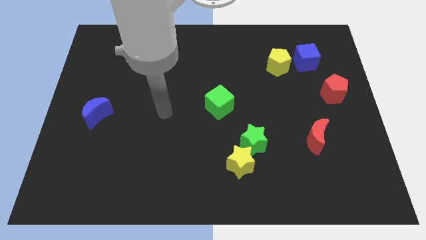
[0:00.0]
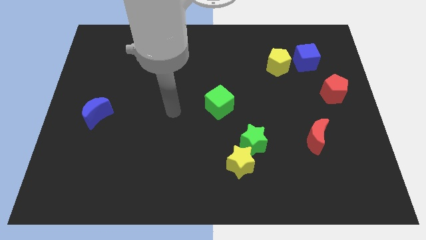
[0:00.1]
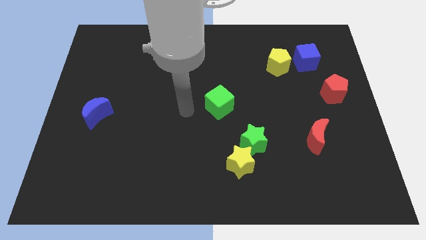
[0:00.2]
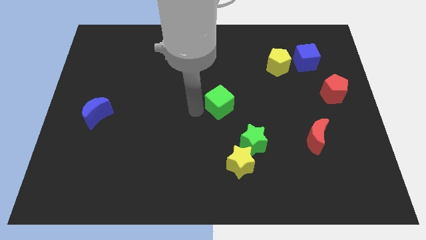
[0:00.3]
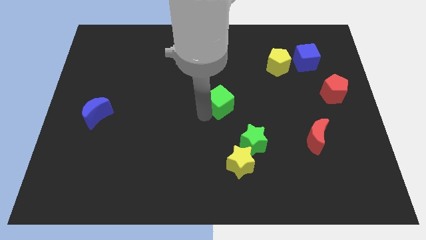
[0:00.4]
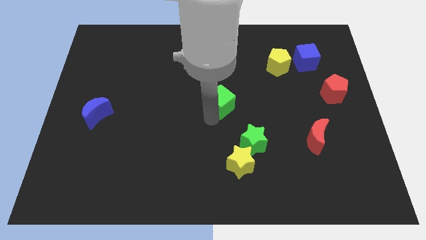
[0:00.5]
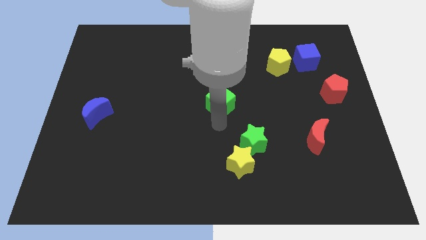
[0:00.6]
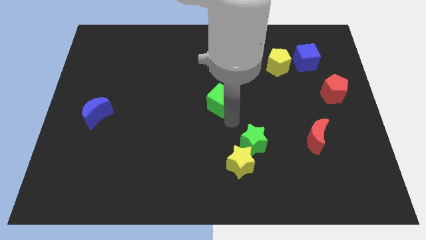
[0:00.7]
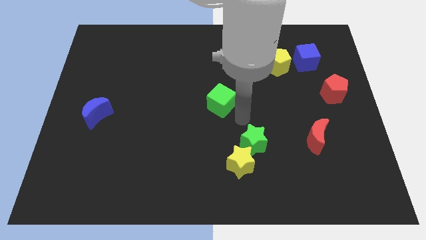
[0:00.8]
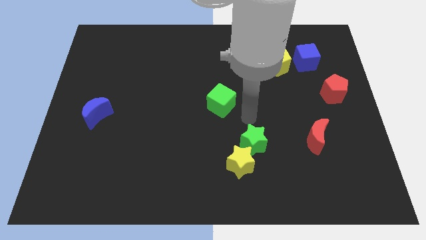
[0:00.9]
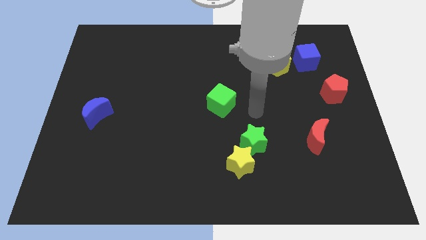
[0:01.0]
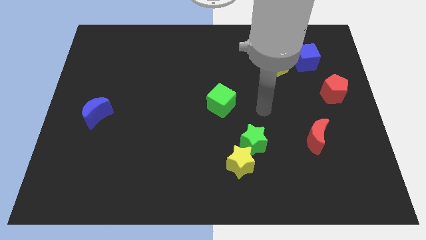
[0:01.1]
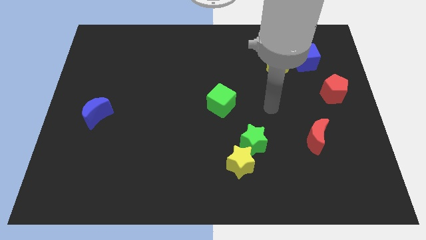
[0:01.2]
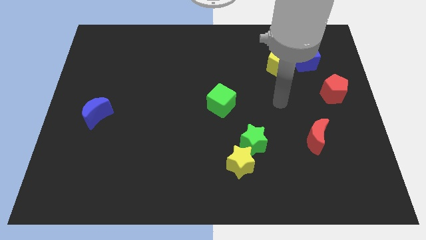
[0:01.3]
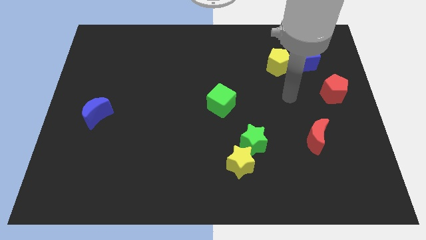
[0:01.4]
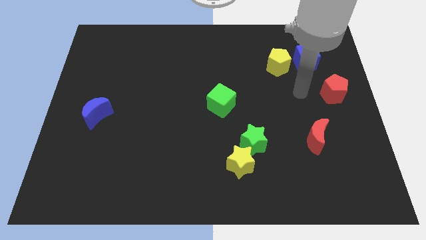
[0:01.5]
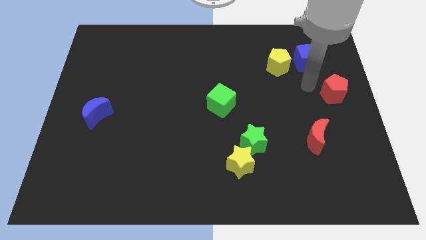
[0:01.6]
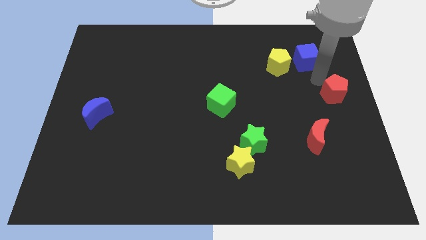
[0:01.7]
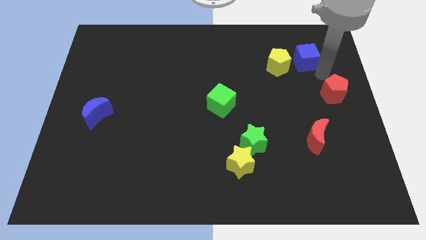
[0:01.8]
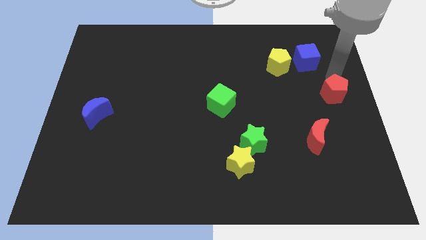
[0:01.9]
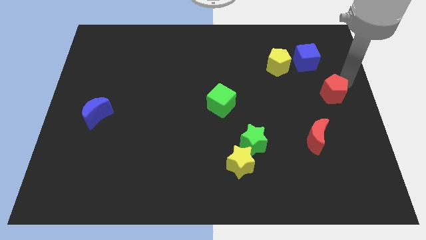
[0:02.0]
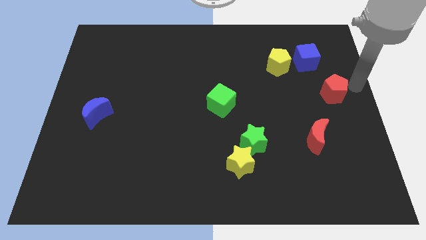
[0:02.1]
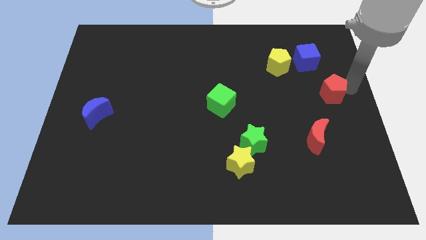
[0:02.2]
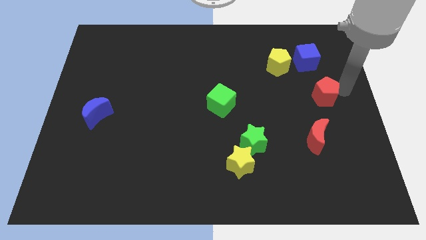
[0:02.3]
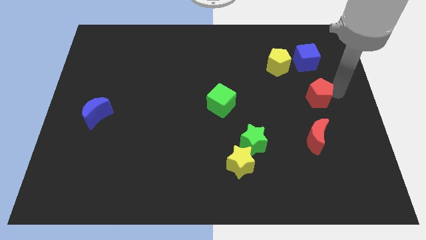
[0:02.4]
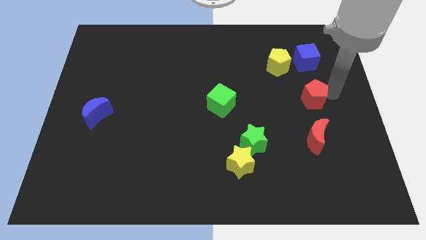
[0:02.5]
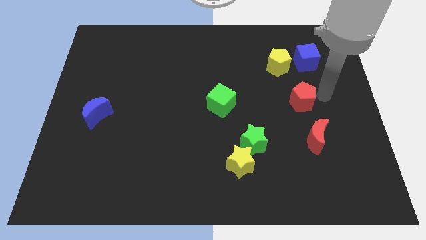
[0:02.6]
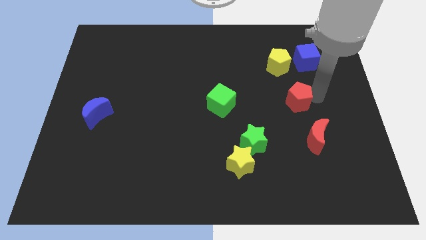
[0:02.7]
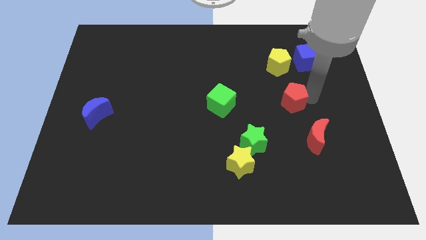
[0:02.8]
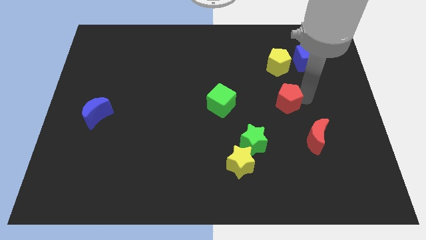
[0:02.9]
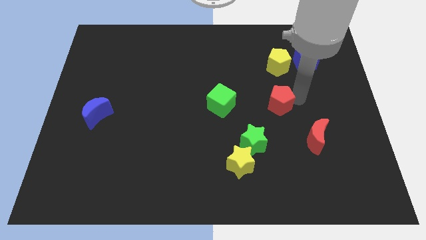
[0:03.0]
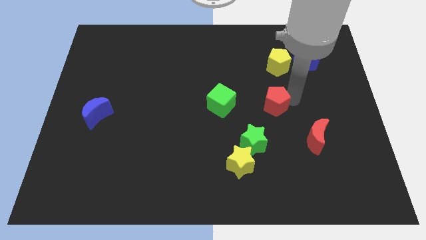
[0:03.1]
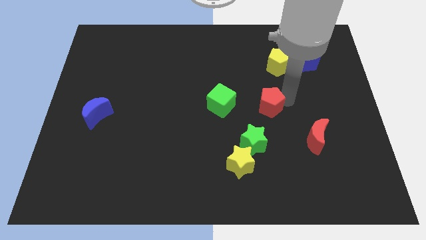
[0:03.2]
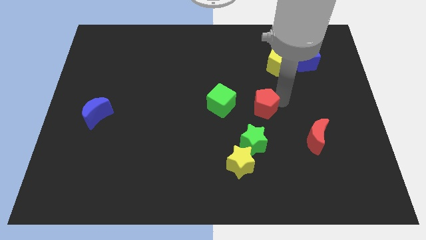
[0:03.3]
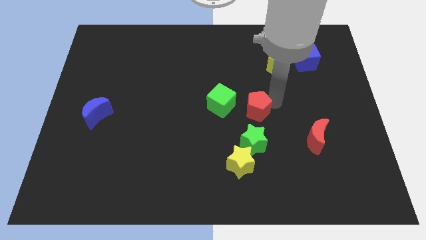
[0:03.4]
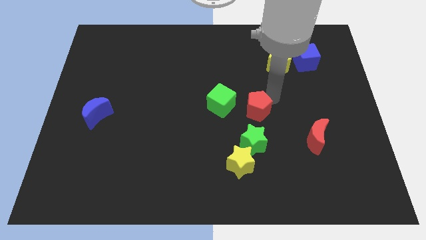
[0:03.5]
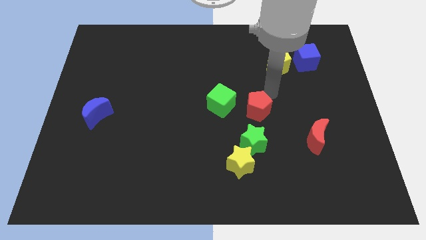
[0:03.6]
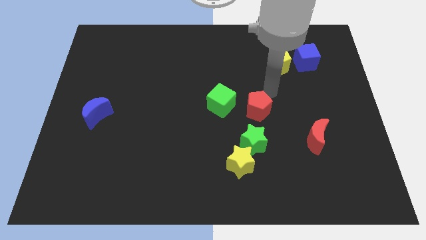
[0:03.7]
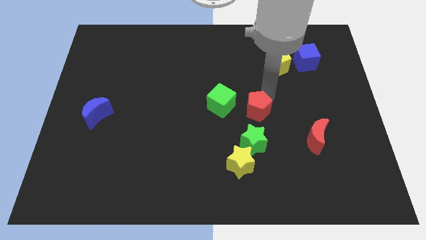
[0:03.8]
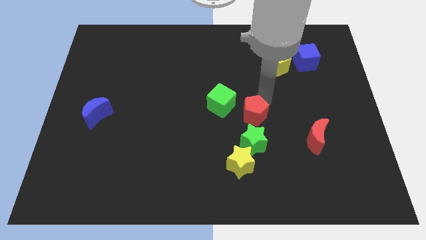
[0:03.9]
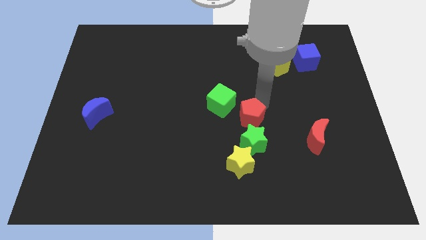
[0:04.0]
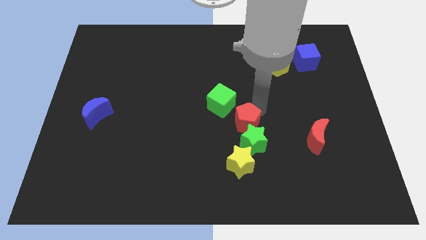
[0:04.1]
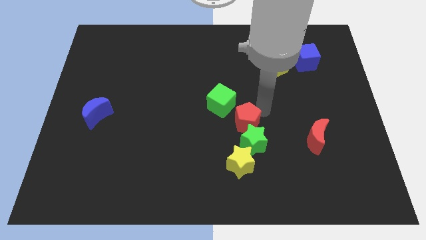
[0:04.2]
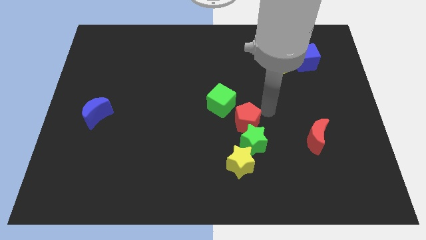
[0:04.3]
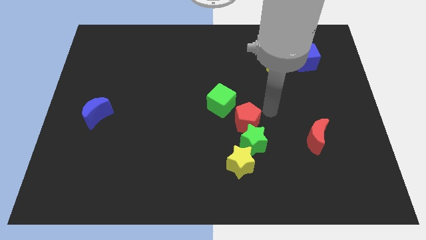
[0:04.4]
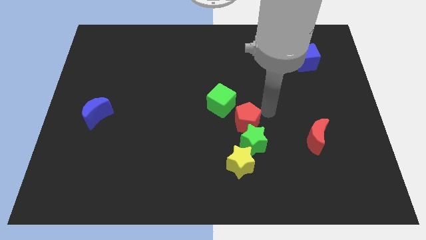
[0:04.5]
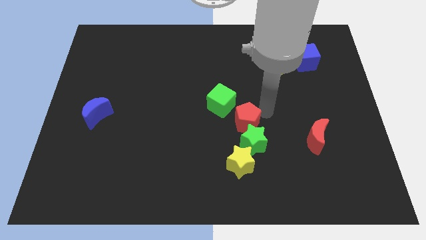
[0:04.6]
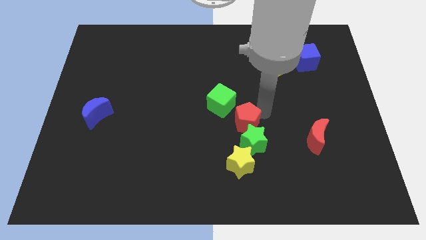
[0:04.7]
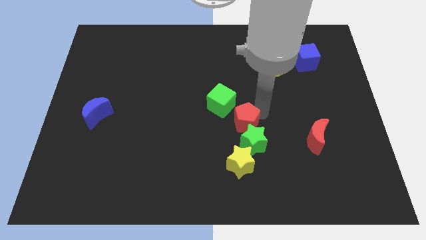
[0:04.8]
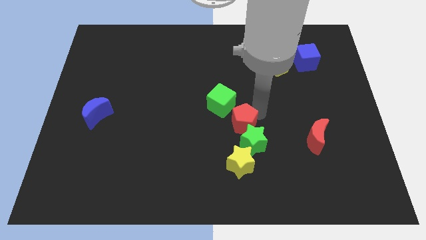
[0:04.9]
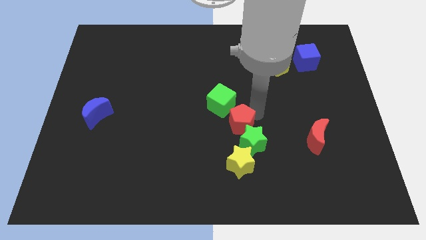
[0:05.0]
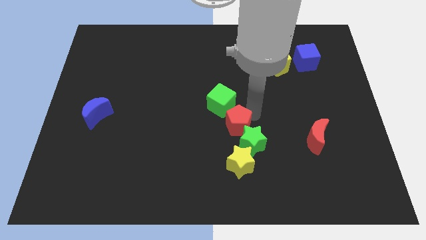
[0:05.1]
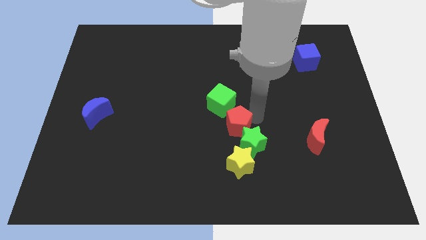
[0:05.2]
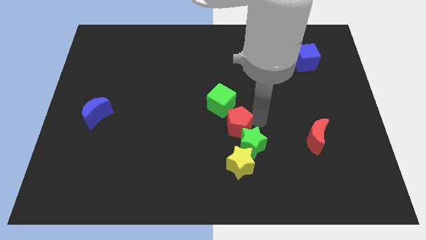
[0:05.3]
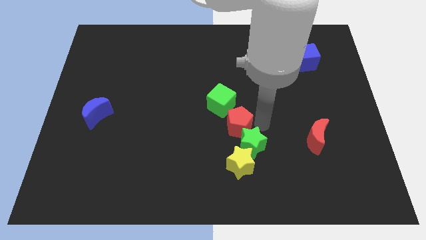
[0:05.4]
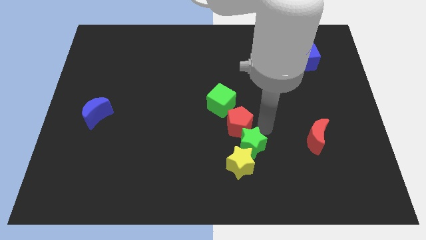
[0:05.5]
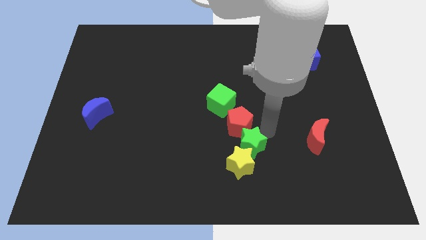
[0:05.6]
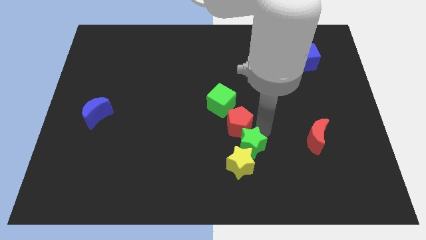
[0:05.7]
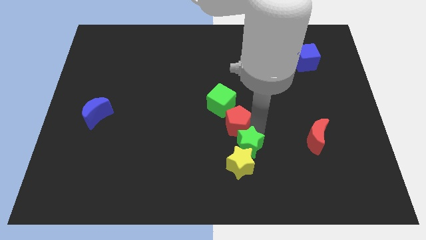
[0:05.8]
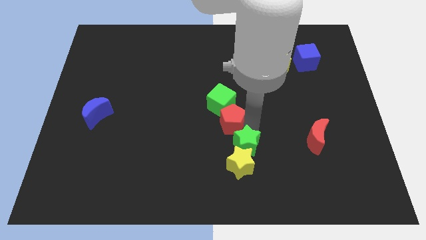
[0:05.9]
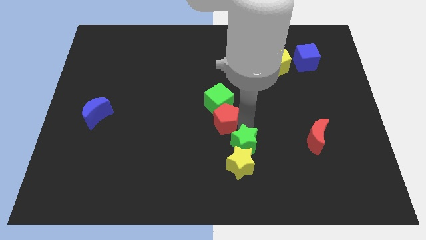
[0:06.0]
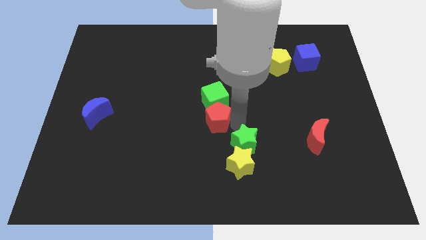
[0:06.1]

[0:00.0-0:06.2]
put the red pentagon to the bottom left side of the green cube
